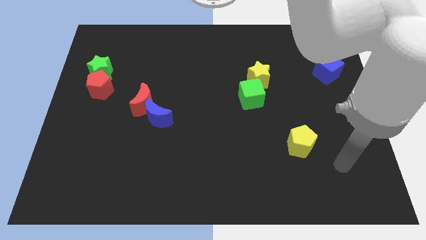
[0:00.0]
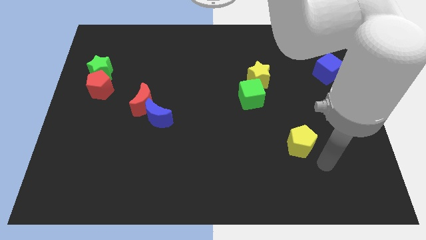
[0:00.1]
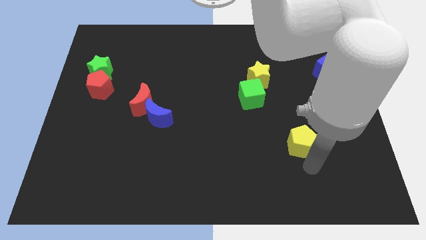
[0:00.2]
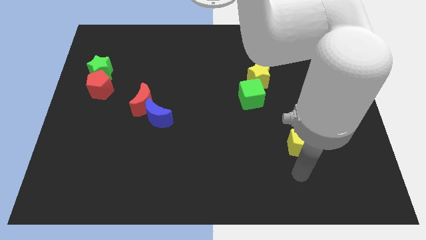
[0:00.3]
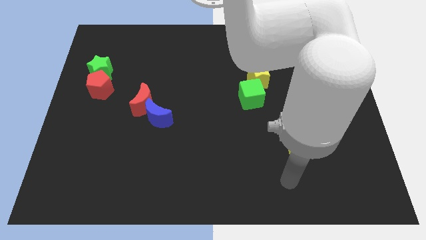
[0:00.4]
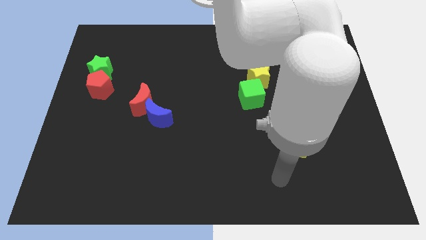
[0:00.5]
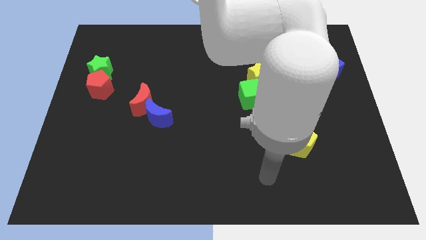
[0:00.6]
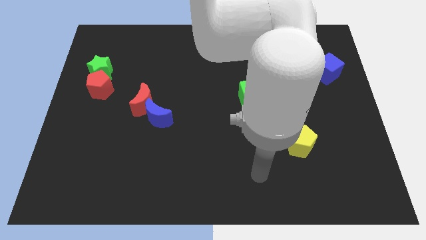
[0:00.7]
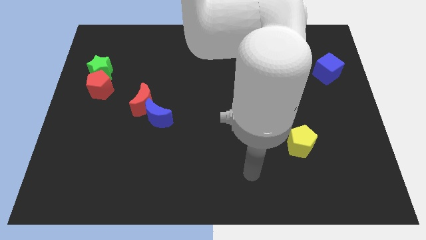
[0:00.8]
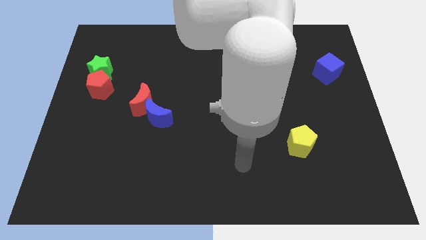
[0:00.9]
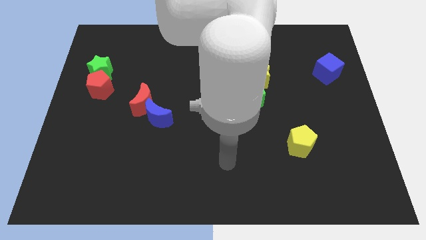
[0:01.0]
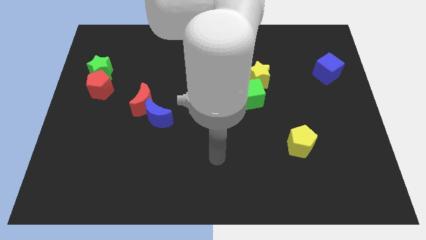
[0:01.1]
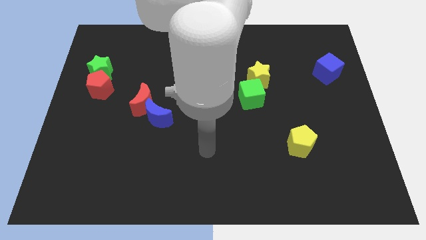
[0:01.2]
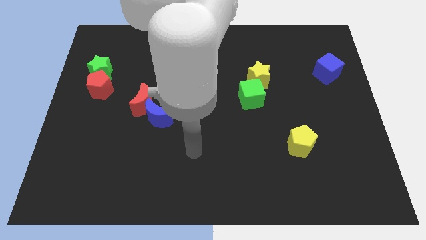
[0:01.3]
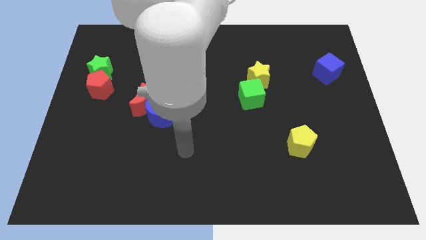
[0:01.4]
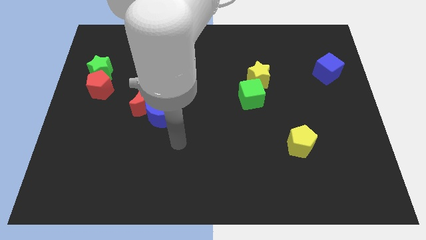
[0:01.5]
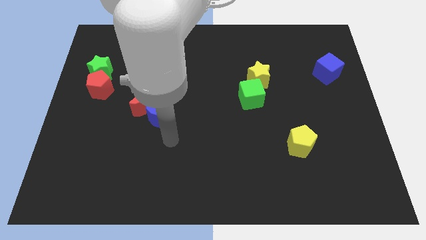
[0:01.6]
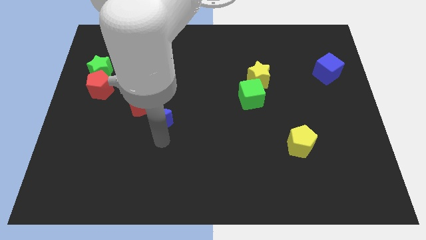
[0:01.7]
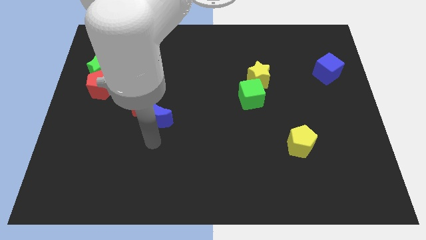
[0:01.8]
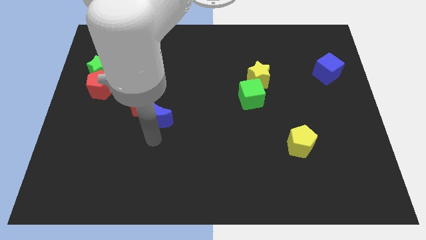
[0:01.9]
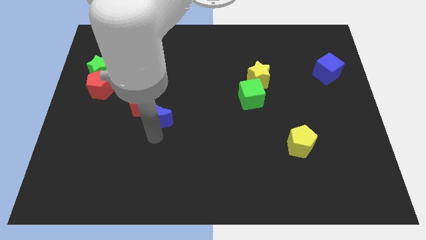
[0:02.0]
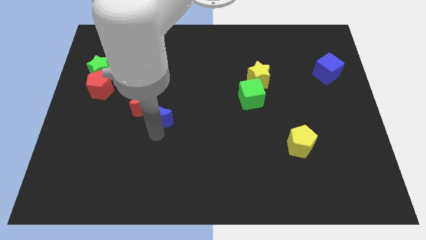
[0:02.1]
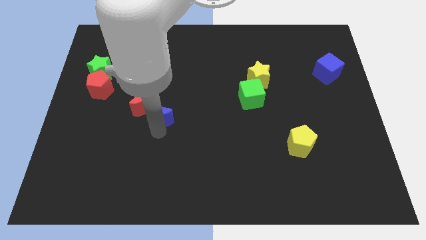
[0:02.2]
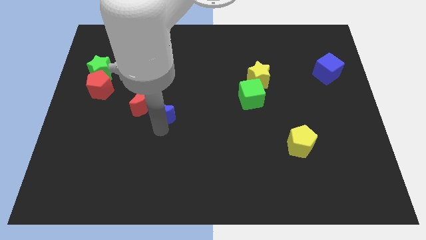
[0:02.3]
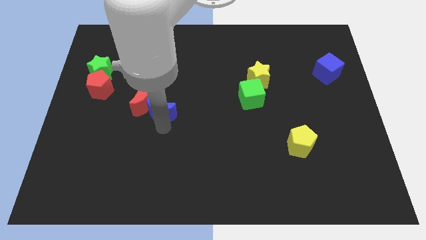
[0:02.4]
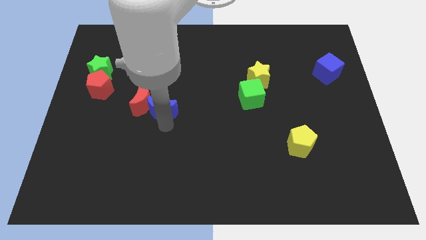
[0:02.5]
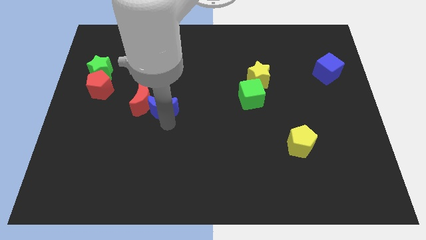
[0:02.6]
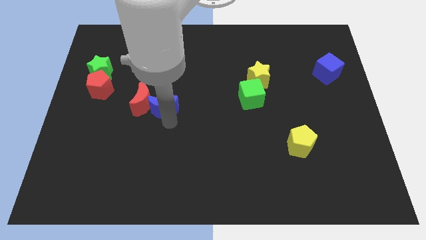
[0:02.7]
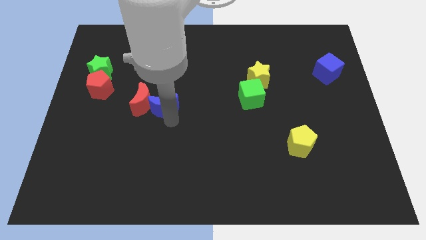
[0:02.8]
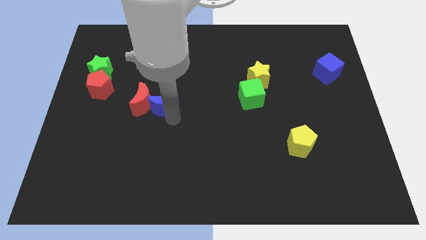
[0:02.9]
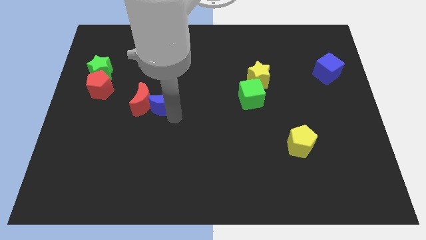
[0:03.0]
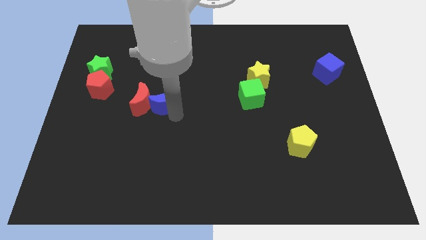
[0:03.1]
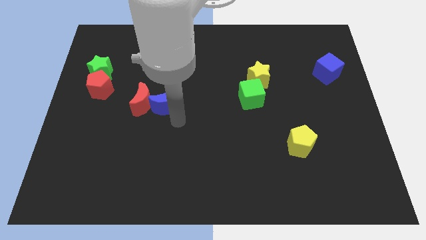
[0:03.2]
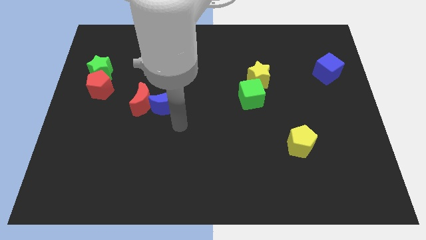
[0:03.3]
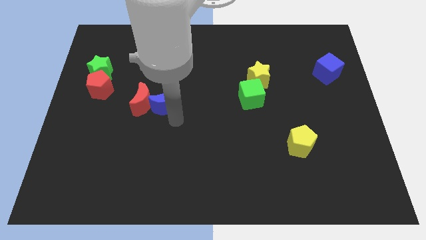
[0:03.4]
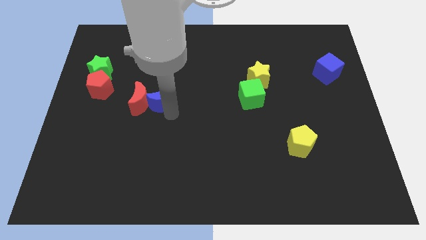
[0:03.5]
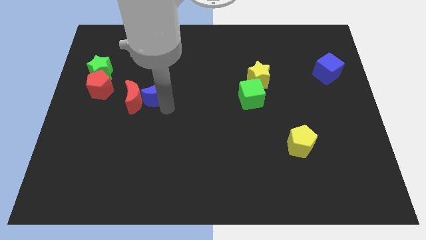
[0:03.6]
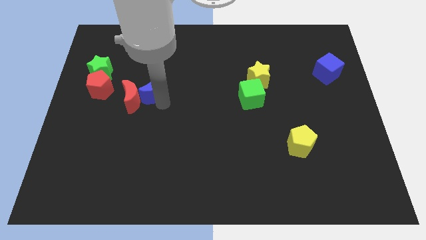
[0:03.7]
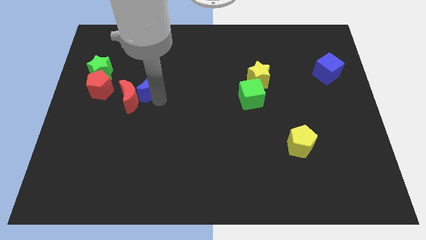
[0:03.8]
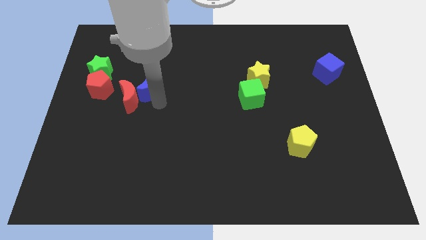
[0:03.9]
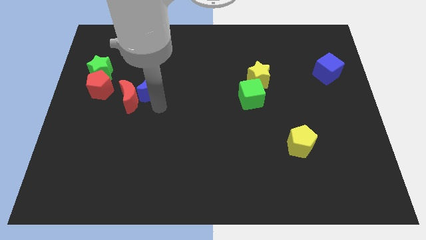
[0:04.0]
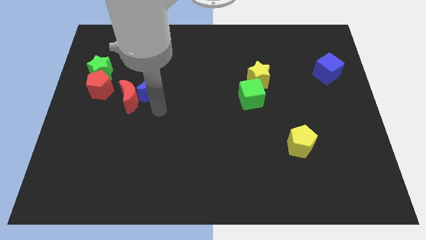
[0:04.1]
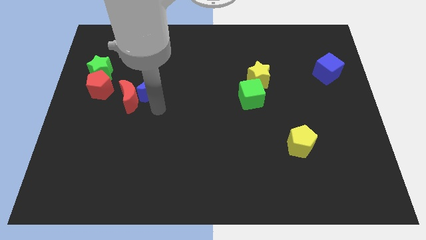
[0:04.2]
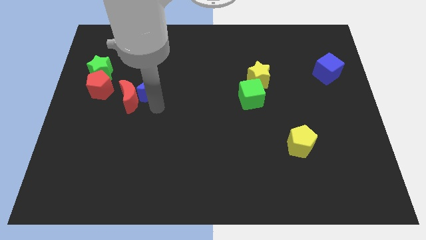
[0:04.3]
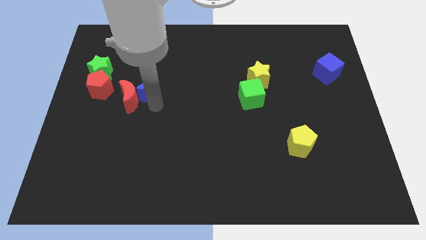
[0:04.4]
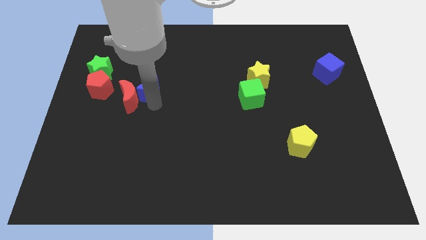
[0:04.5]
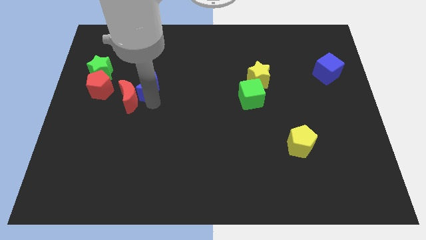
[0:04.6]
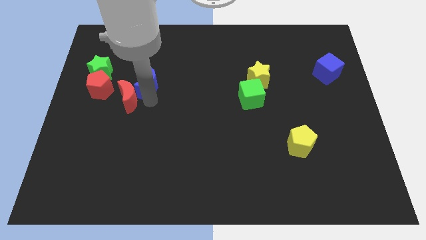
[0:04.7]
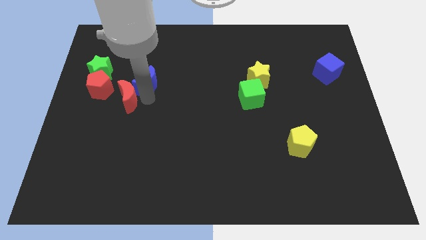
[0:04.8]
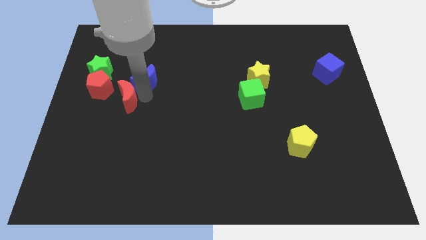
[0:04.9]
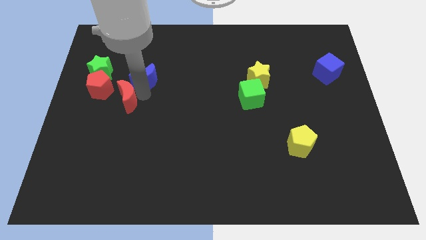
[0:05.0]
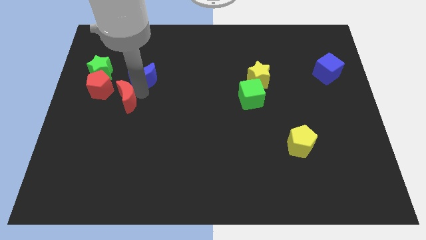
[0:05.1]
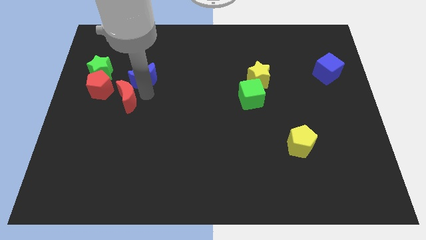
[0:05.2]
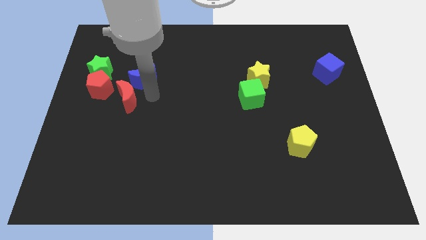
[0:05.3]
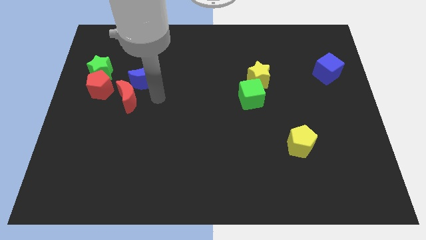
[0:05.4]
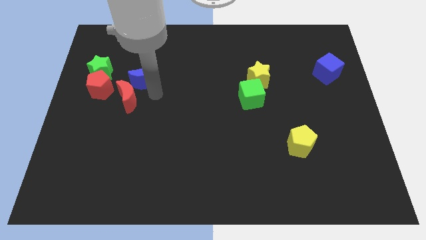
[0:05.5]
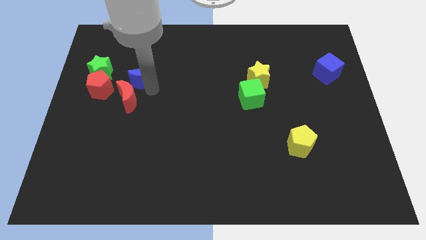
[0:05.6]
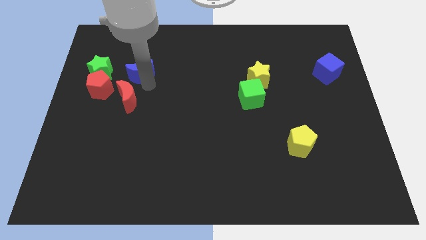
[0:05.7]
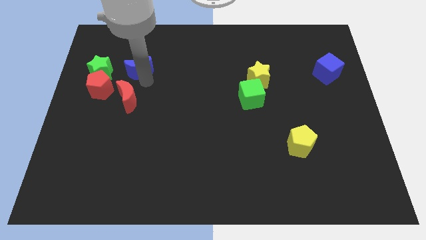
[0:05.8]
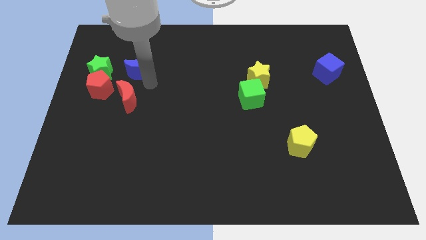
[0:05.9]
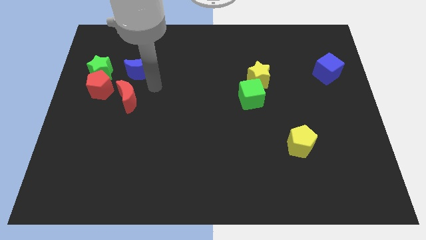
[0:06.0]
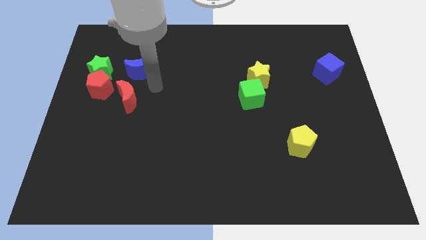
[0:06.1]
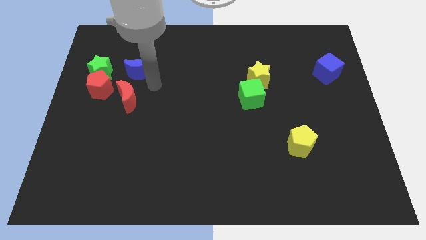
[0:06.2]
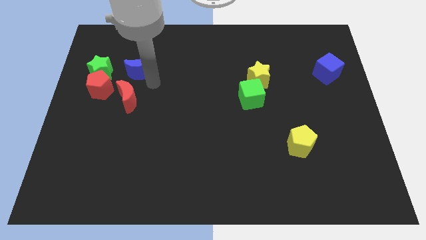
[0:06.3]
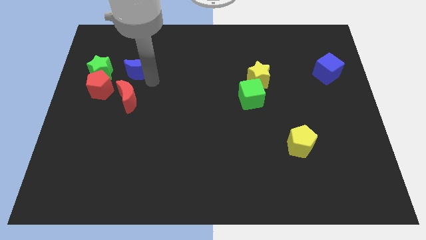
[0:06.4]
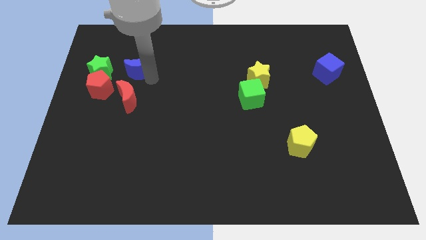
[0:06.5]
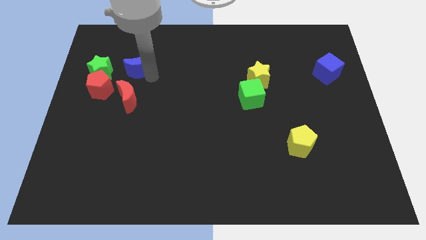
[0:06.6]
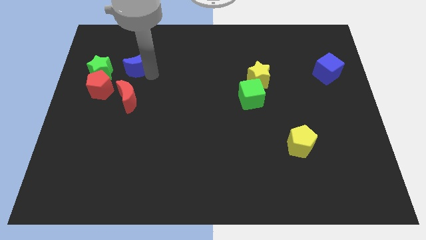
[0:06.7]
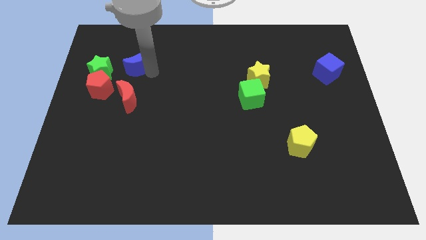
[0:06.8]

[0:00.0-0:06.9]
slide the blue moon to the top right of the green star

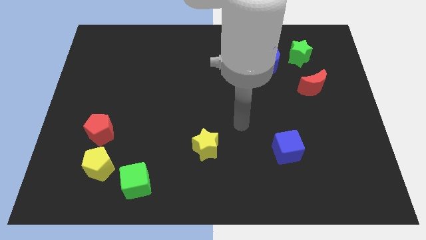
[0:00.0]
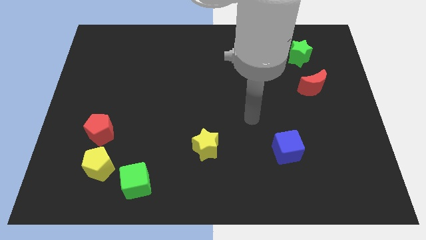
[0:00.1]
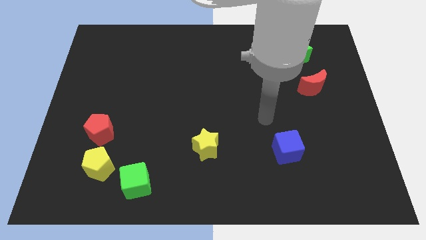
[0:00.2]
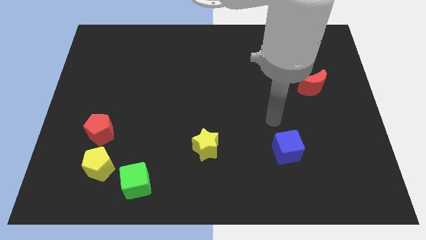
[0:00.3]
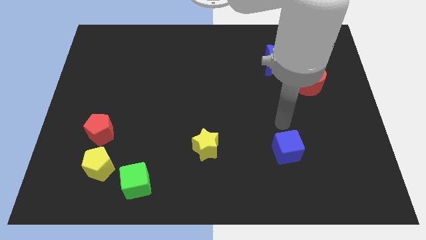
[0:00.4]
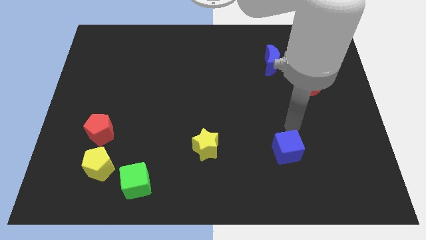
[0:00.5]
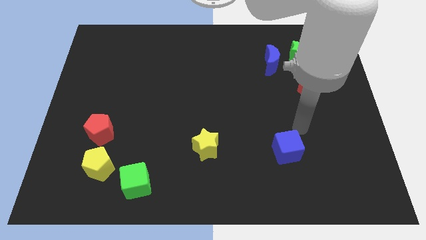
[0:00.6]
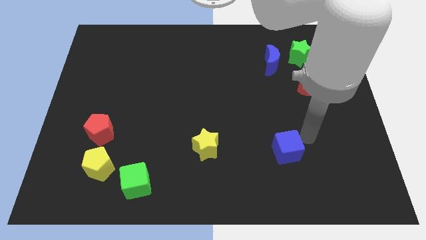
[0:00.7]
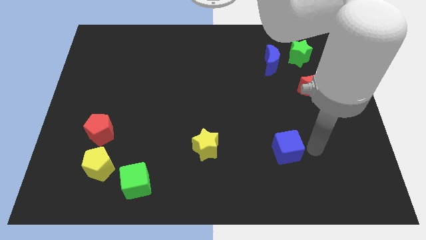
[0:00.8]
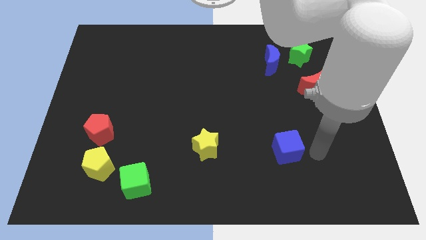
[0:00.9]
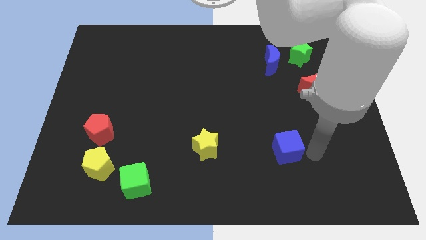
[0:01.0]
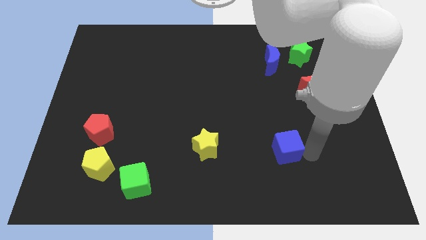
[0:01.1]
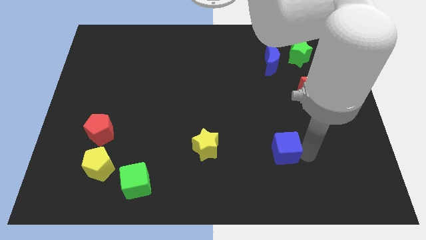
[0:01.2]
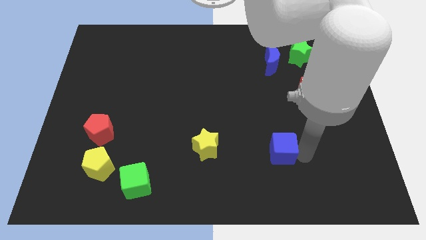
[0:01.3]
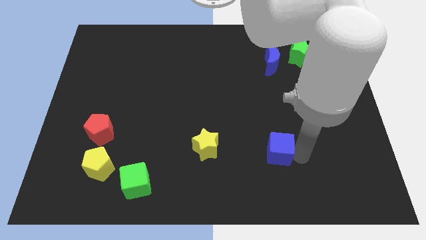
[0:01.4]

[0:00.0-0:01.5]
slide the blue cube just right of the yellow star
